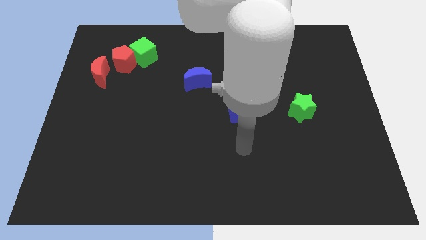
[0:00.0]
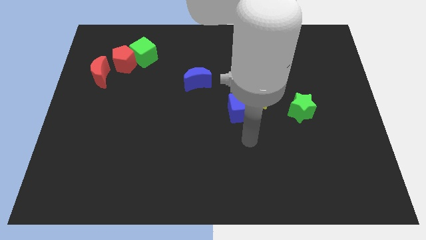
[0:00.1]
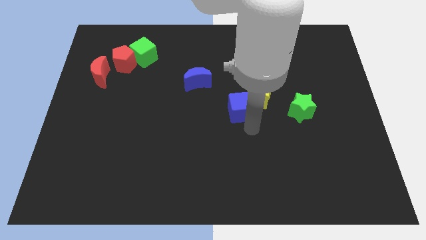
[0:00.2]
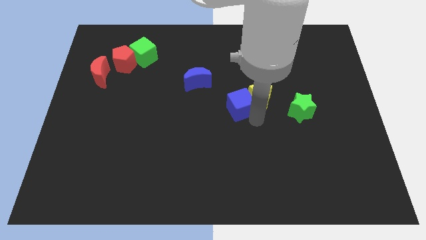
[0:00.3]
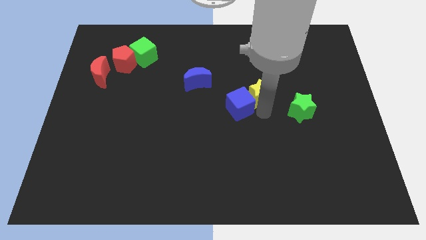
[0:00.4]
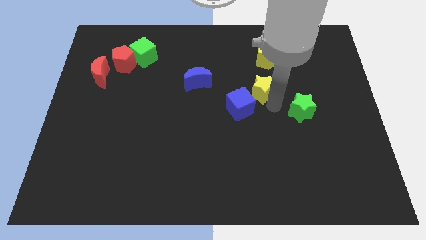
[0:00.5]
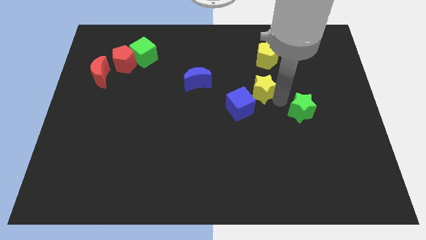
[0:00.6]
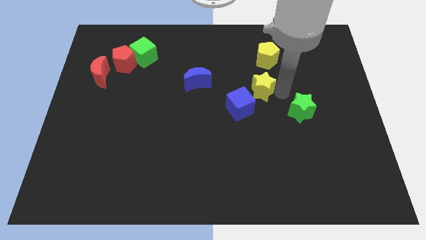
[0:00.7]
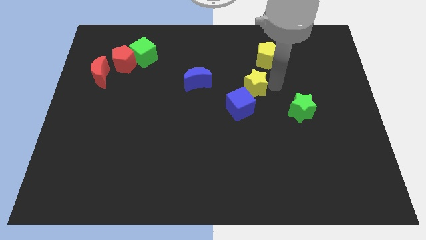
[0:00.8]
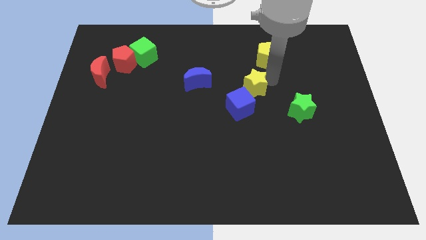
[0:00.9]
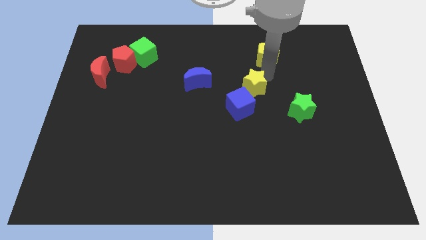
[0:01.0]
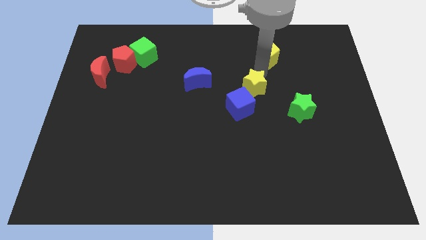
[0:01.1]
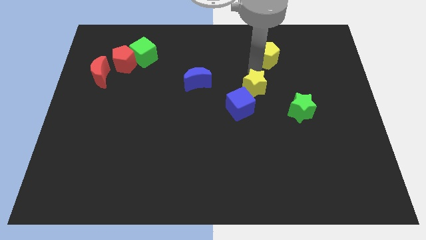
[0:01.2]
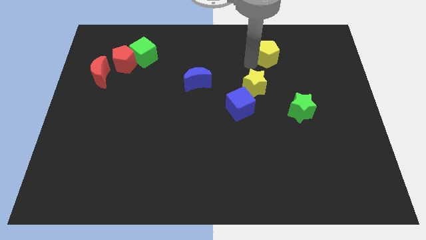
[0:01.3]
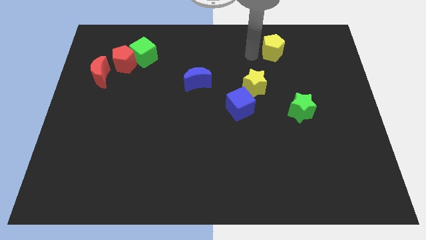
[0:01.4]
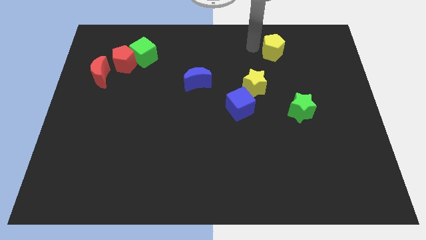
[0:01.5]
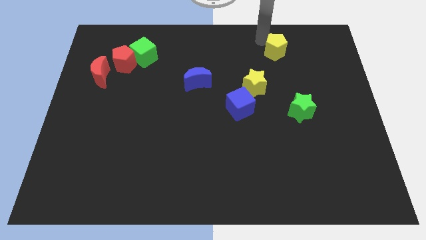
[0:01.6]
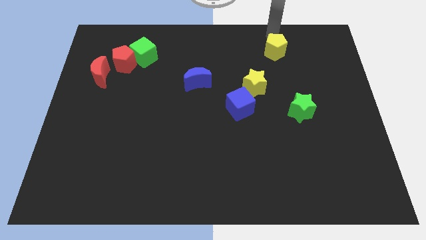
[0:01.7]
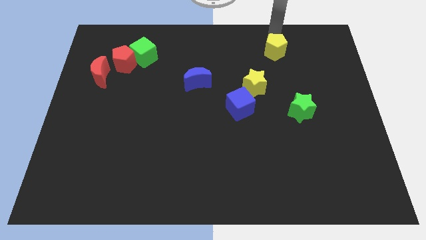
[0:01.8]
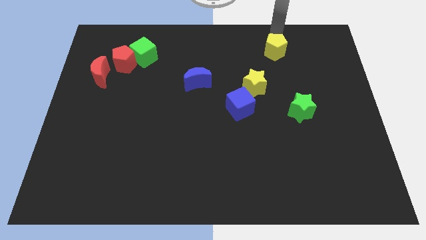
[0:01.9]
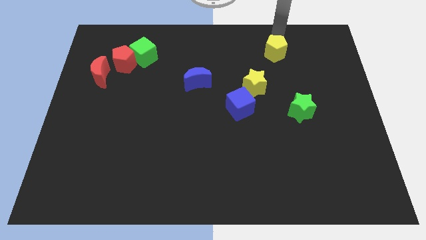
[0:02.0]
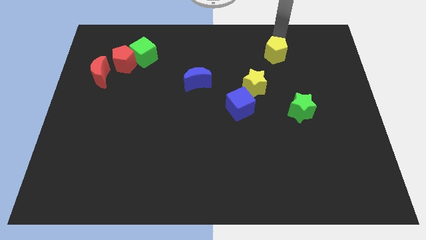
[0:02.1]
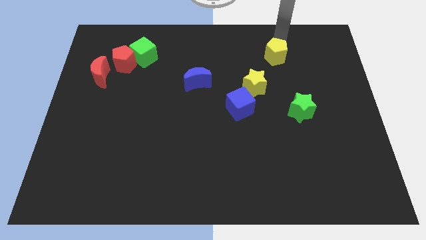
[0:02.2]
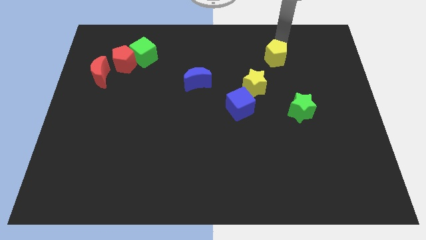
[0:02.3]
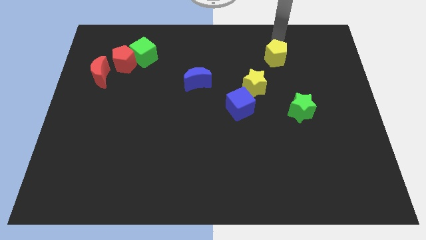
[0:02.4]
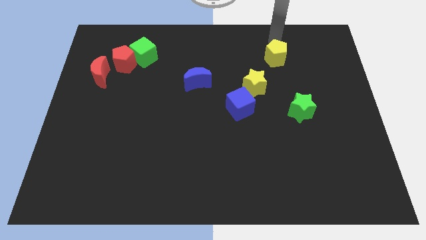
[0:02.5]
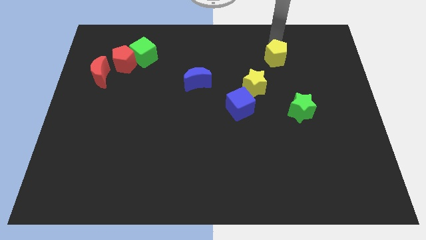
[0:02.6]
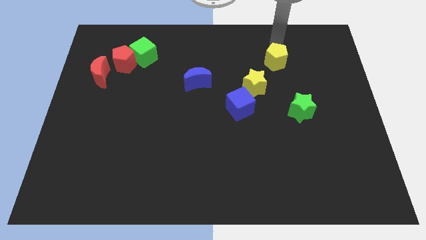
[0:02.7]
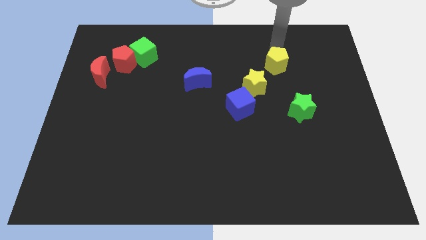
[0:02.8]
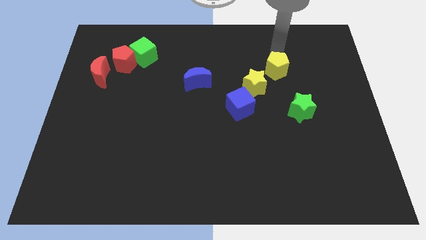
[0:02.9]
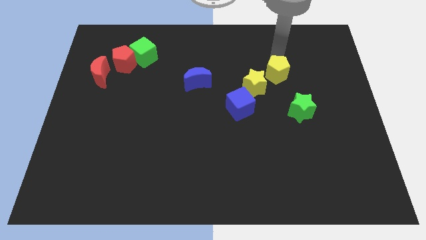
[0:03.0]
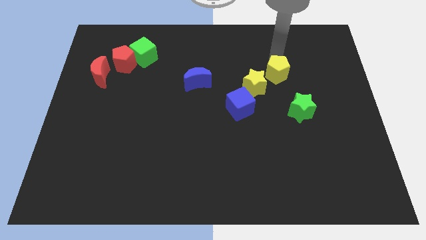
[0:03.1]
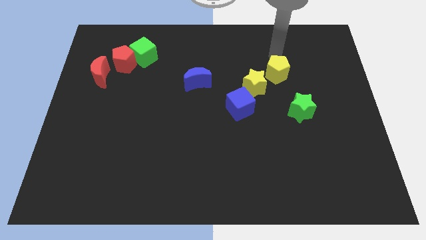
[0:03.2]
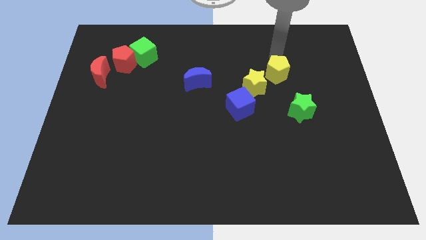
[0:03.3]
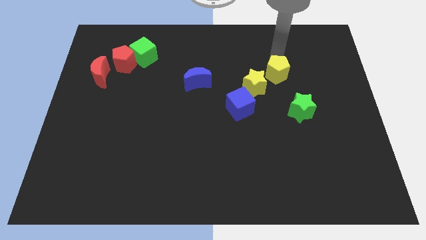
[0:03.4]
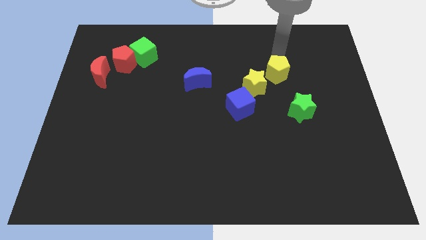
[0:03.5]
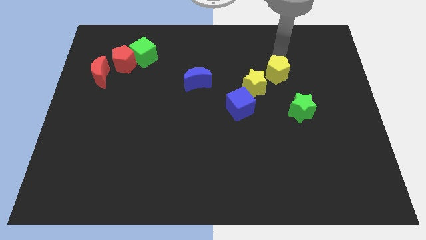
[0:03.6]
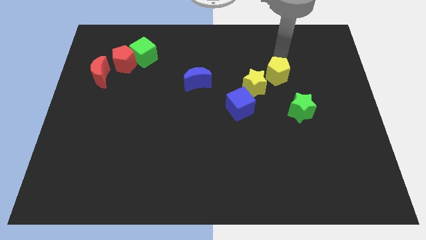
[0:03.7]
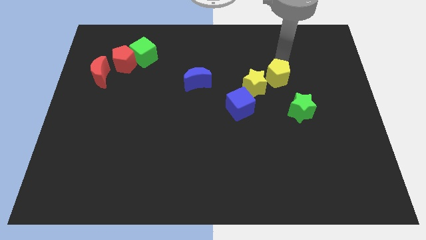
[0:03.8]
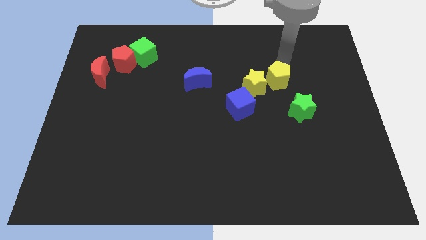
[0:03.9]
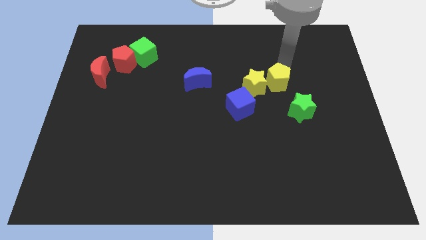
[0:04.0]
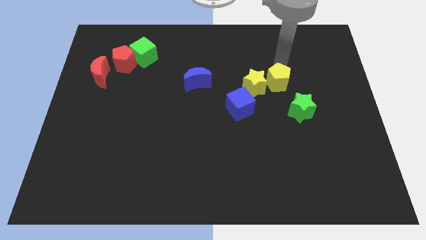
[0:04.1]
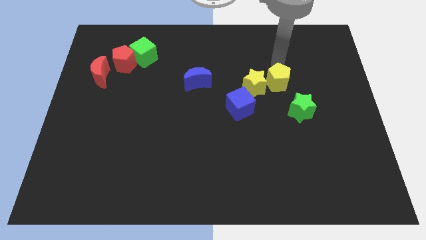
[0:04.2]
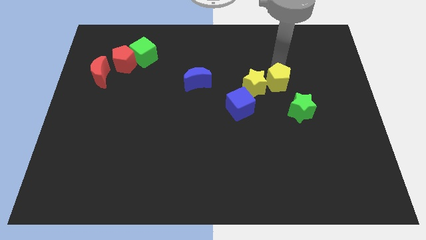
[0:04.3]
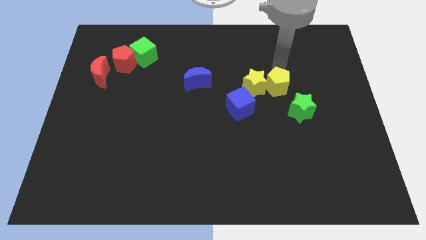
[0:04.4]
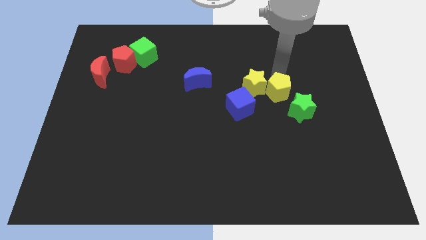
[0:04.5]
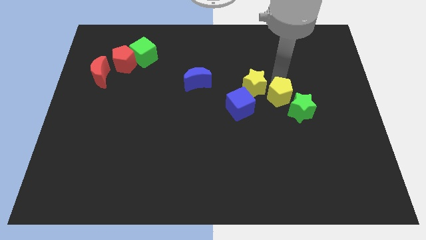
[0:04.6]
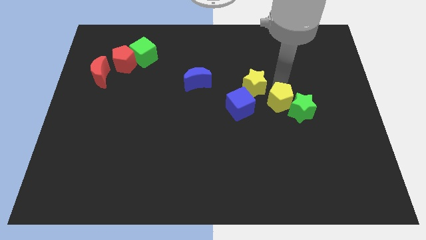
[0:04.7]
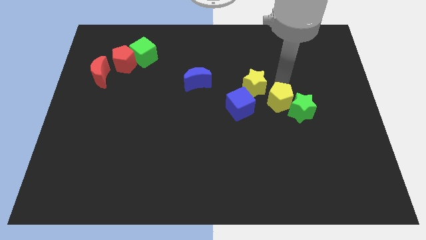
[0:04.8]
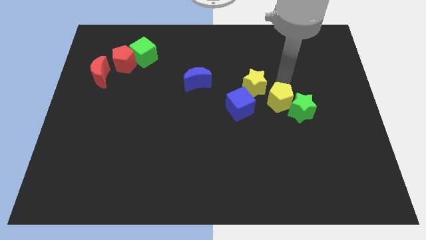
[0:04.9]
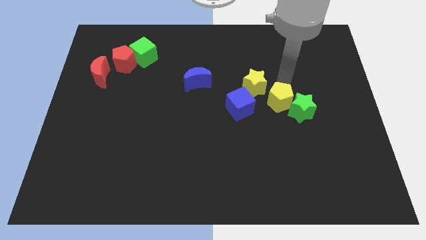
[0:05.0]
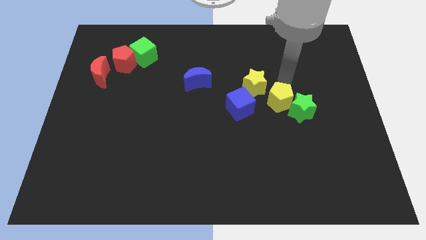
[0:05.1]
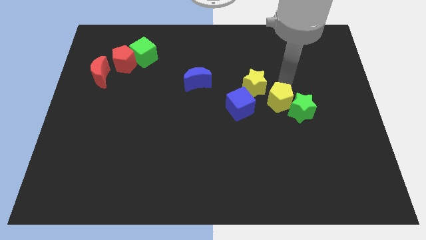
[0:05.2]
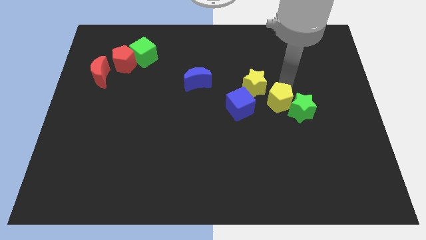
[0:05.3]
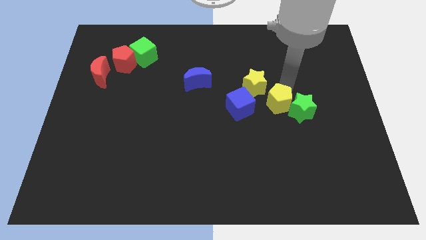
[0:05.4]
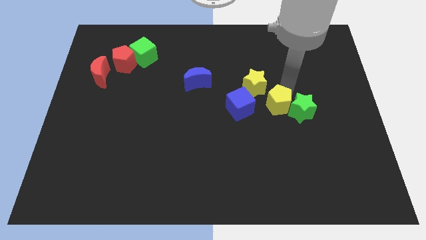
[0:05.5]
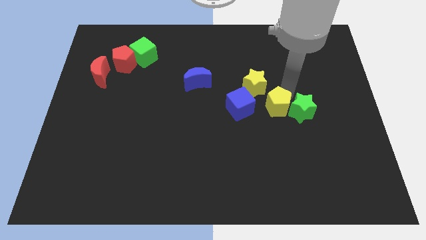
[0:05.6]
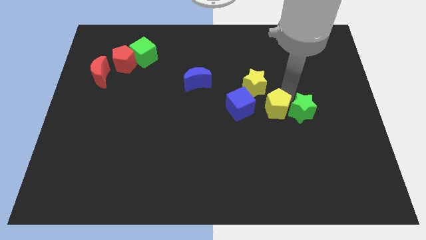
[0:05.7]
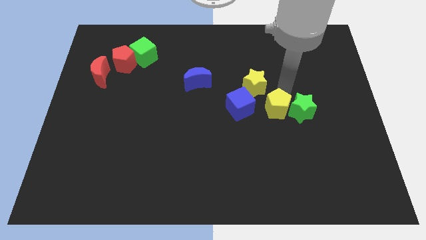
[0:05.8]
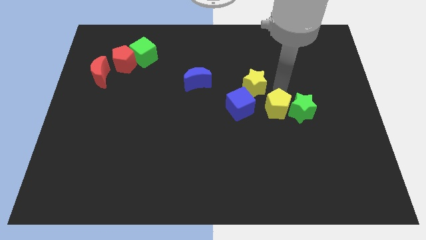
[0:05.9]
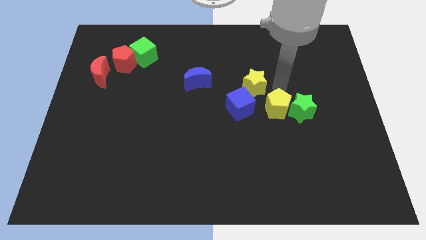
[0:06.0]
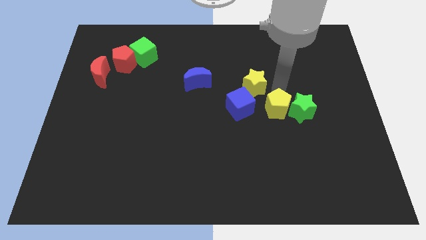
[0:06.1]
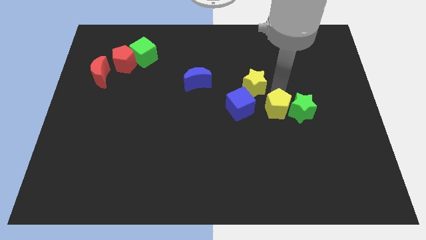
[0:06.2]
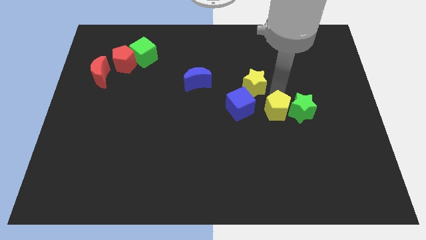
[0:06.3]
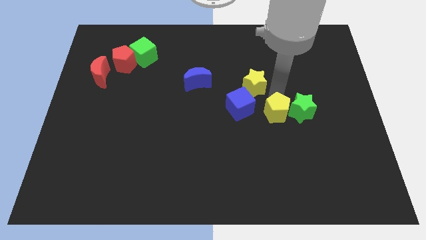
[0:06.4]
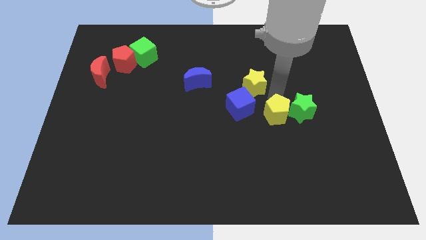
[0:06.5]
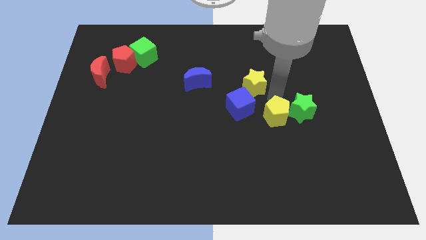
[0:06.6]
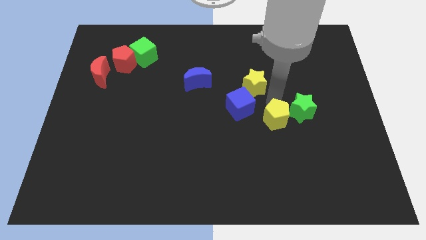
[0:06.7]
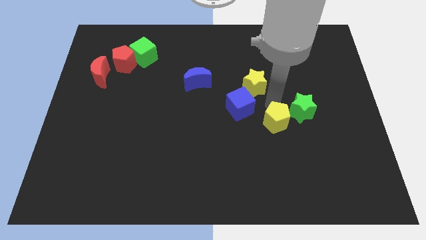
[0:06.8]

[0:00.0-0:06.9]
move the yellow pentagon down

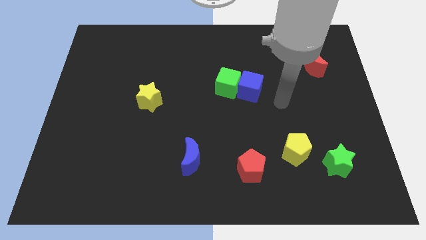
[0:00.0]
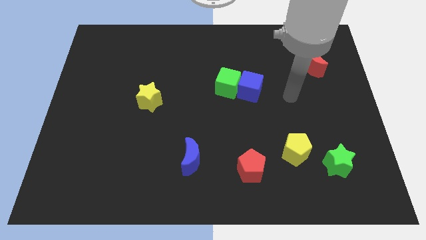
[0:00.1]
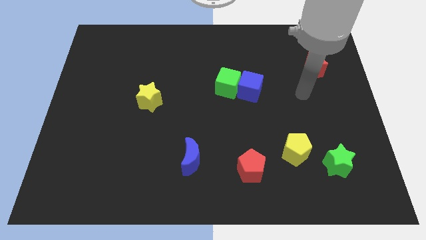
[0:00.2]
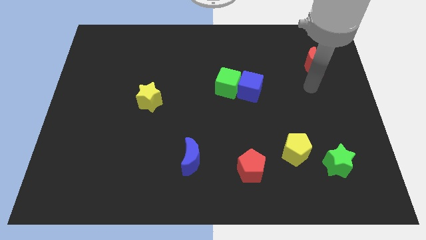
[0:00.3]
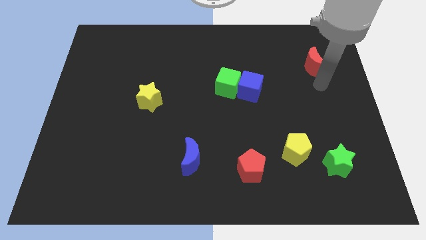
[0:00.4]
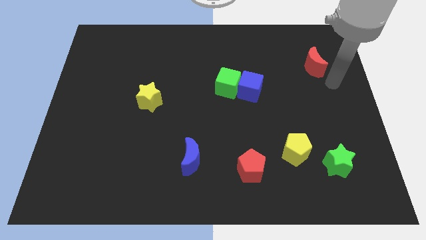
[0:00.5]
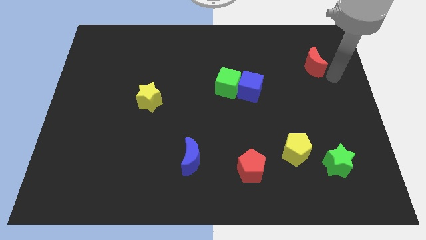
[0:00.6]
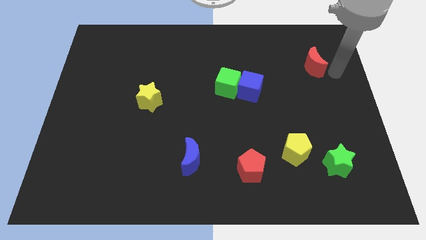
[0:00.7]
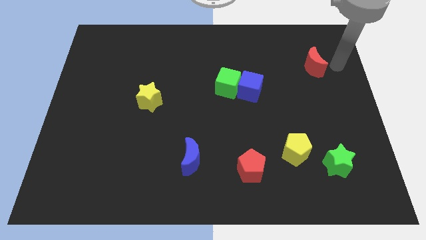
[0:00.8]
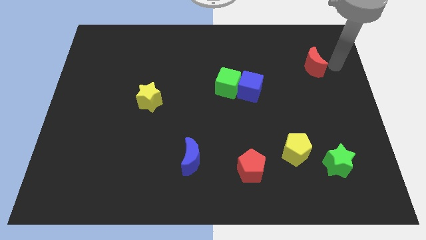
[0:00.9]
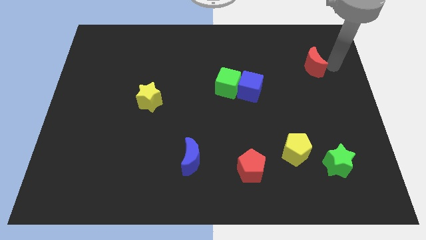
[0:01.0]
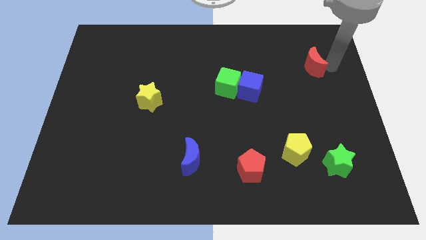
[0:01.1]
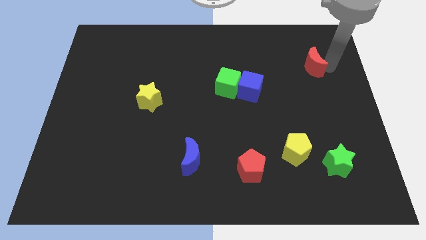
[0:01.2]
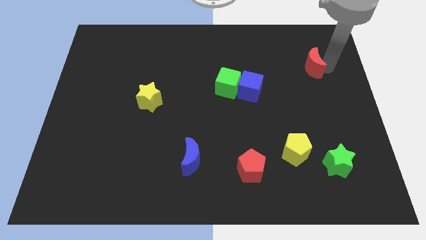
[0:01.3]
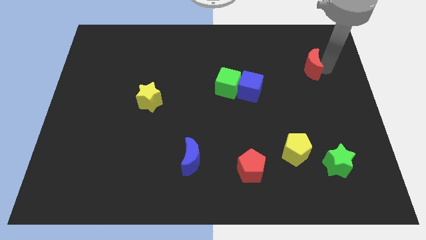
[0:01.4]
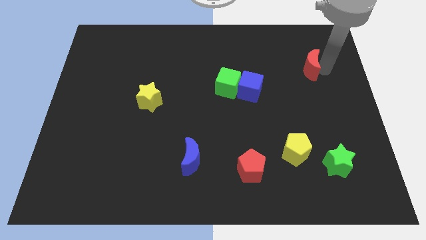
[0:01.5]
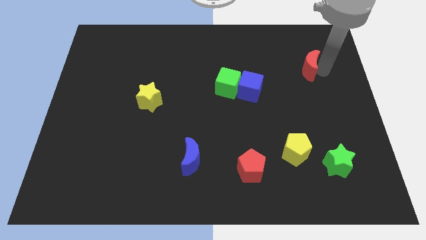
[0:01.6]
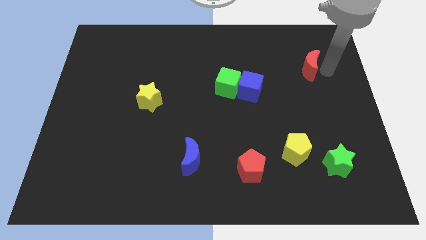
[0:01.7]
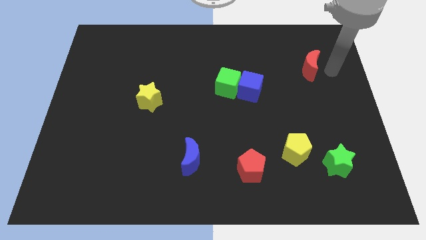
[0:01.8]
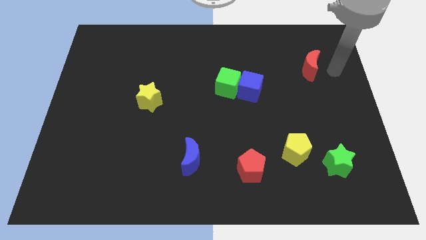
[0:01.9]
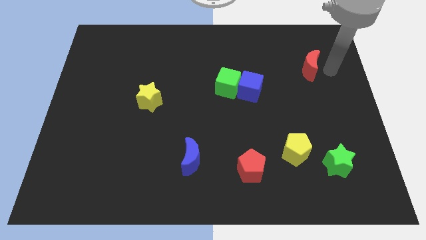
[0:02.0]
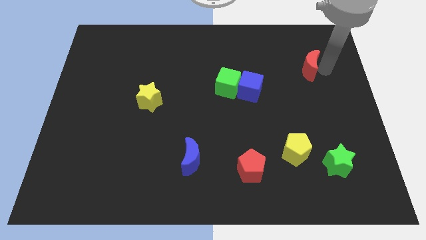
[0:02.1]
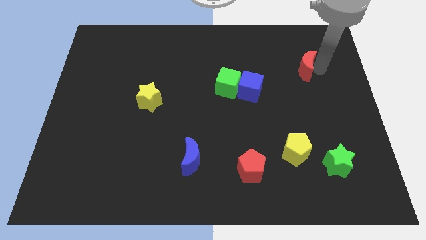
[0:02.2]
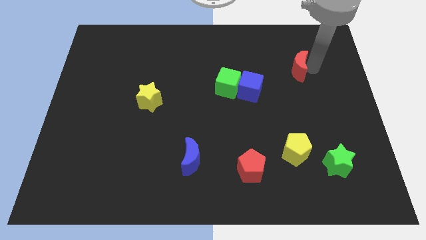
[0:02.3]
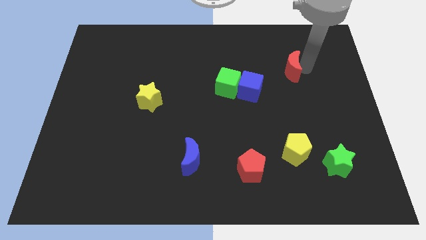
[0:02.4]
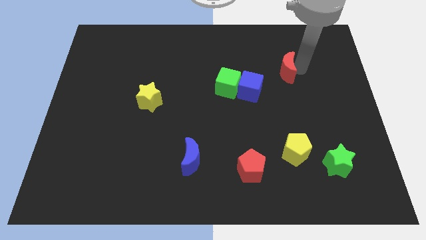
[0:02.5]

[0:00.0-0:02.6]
push the red moon to the left a little bit
